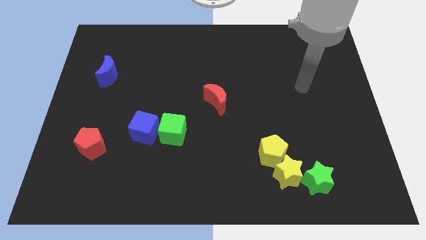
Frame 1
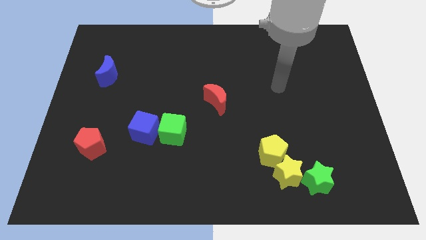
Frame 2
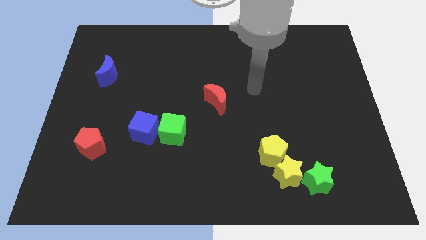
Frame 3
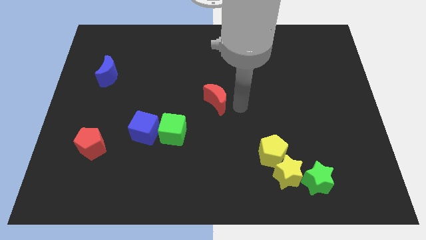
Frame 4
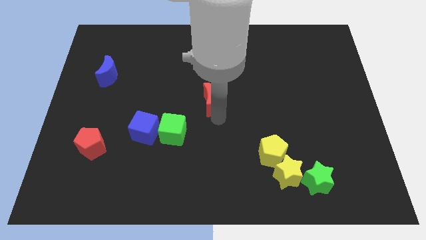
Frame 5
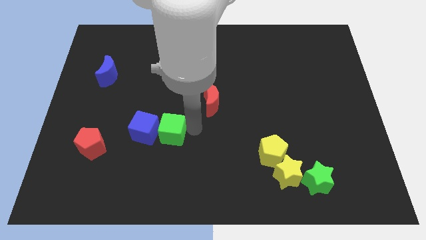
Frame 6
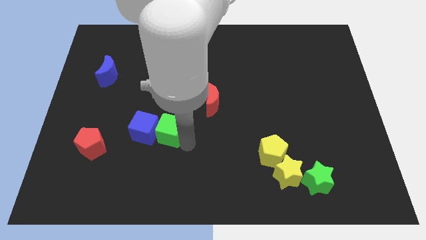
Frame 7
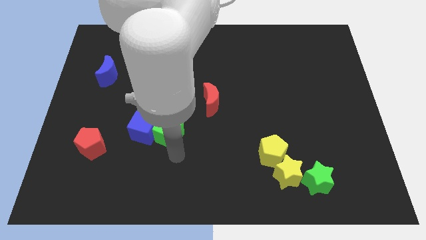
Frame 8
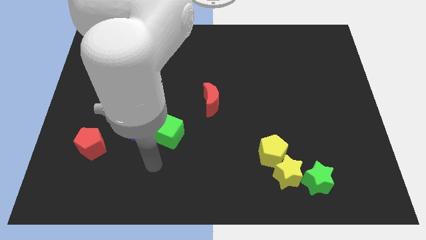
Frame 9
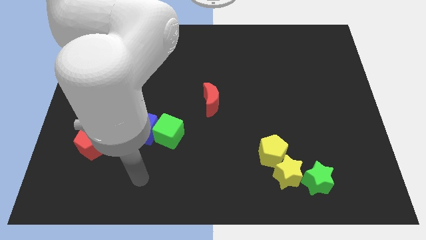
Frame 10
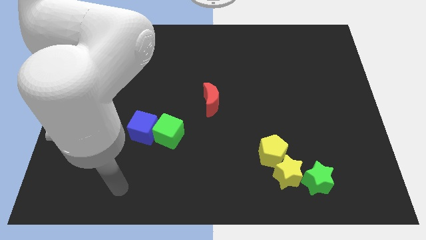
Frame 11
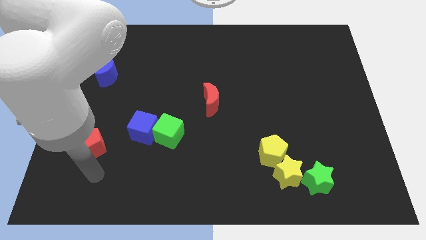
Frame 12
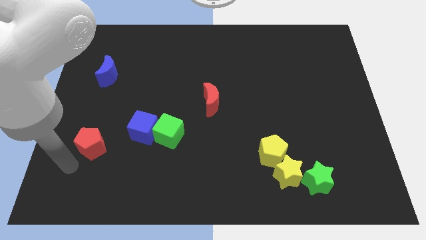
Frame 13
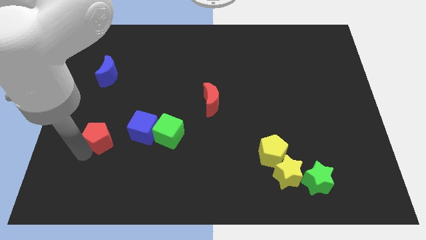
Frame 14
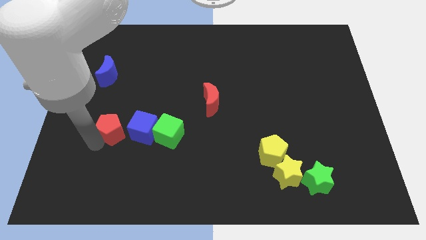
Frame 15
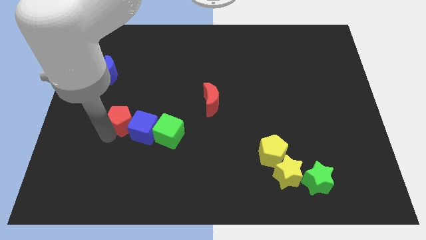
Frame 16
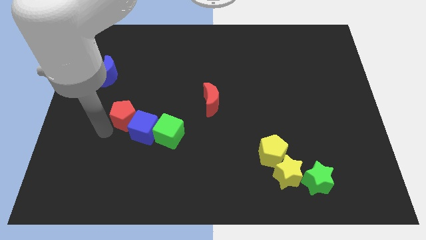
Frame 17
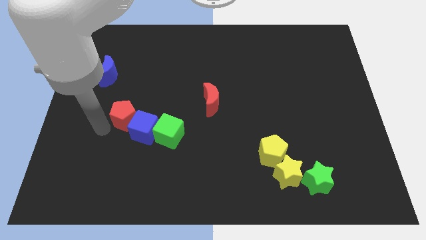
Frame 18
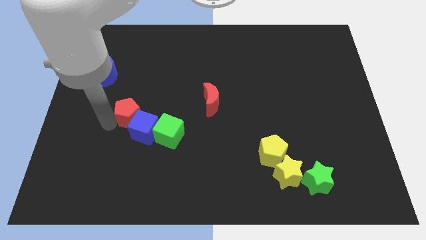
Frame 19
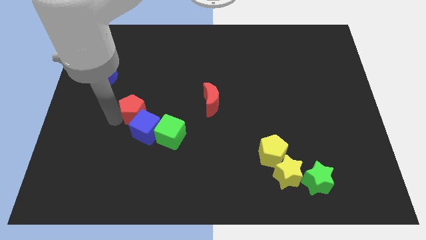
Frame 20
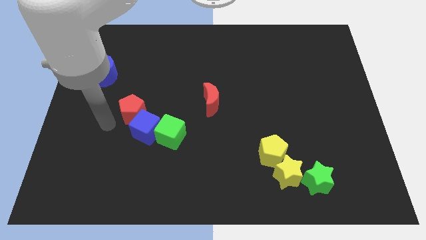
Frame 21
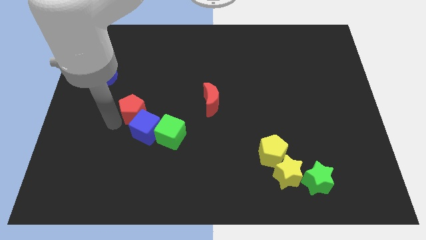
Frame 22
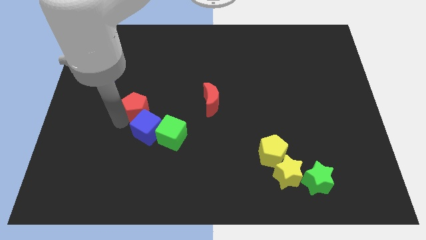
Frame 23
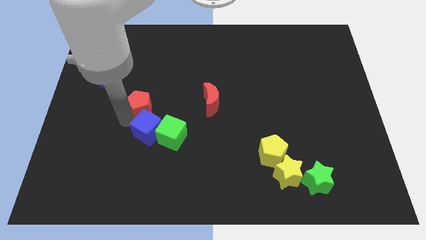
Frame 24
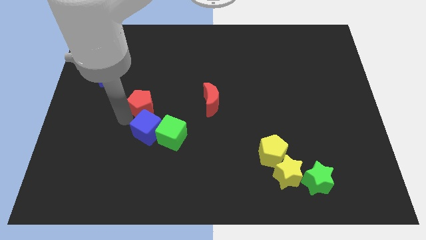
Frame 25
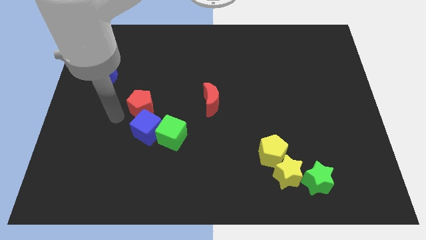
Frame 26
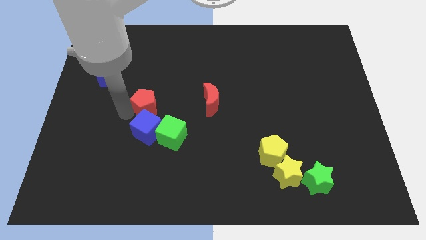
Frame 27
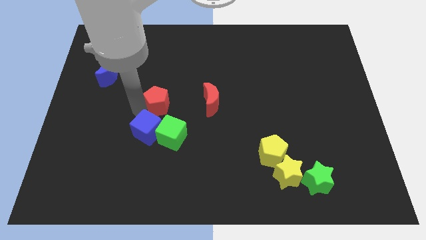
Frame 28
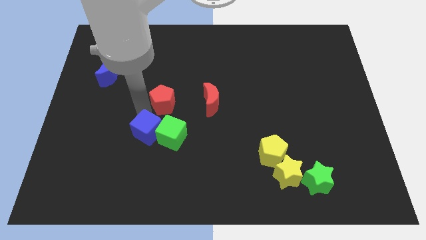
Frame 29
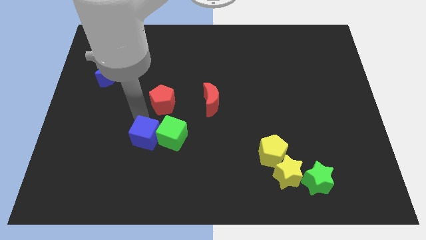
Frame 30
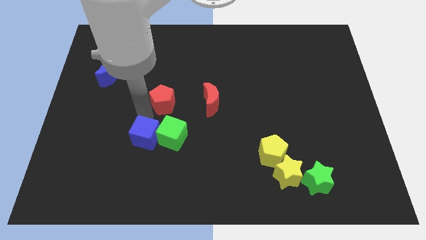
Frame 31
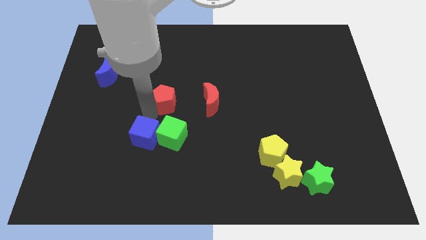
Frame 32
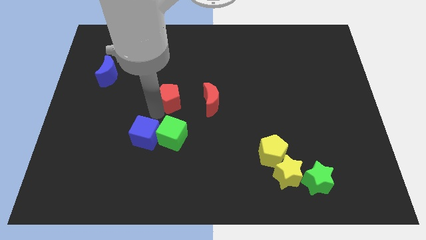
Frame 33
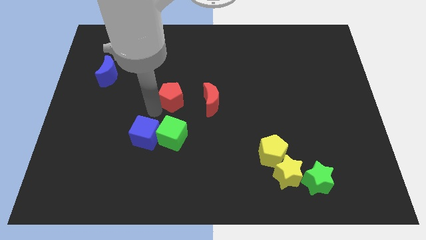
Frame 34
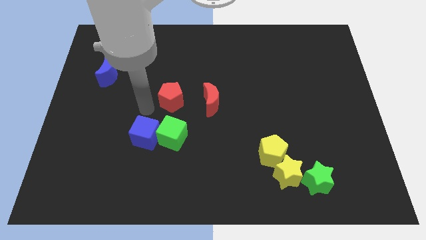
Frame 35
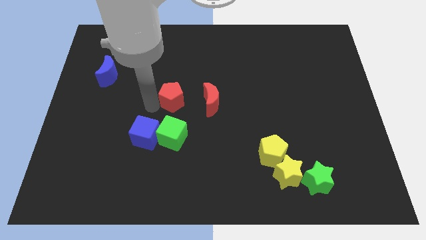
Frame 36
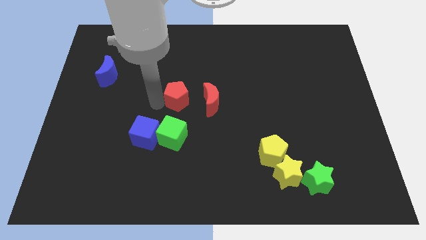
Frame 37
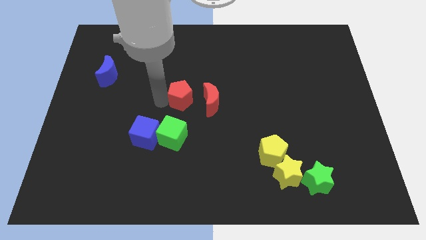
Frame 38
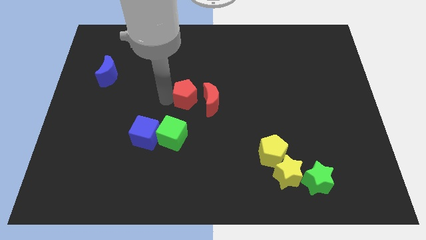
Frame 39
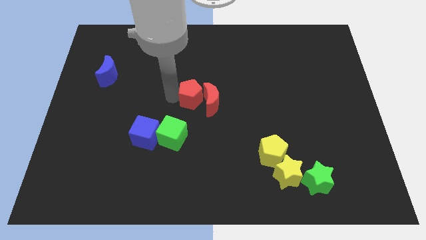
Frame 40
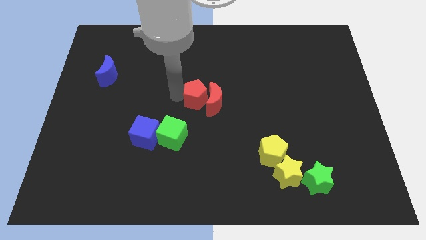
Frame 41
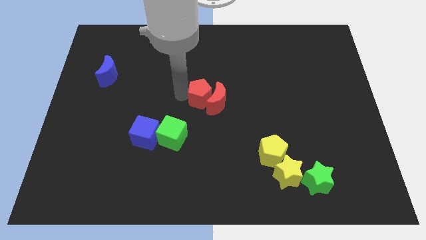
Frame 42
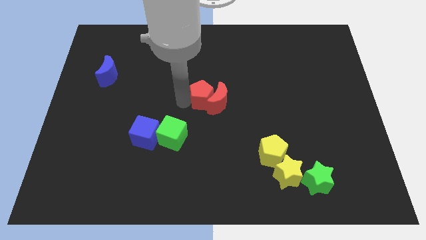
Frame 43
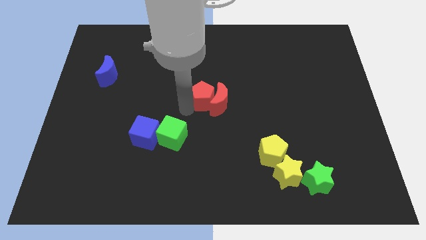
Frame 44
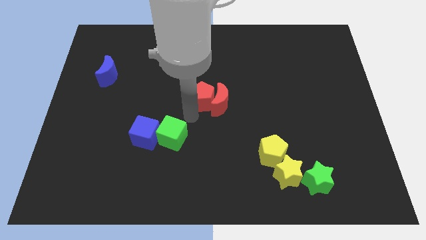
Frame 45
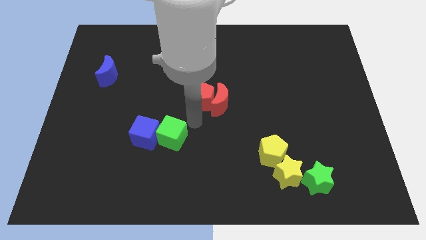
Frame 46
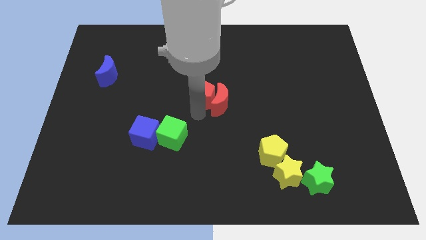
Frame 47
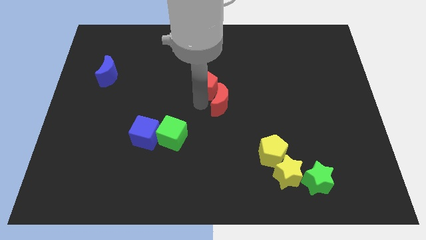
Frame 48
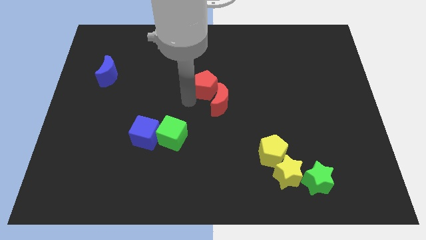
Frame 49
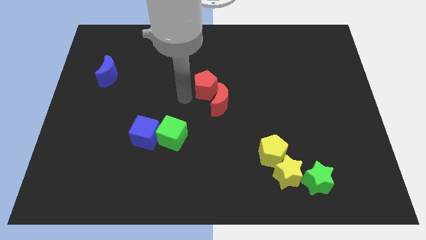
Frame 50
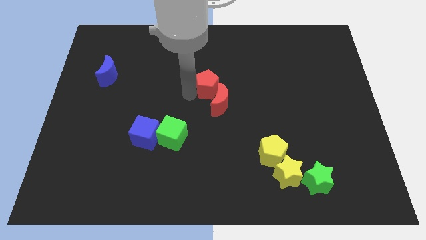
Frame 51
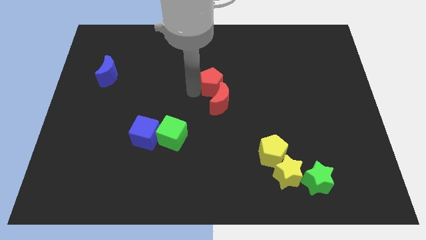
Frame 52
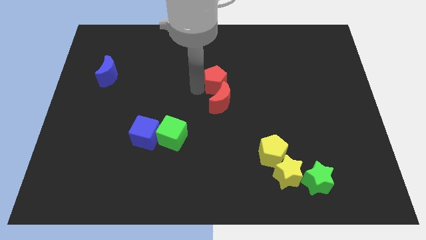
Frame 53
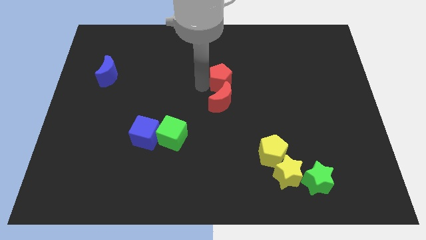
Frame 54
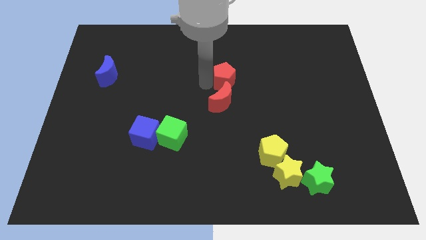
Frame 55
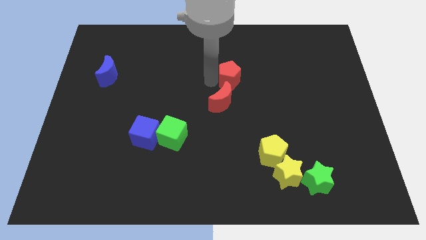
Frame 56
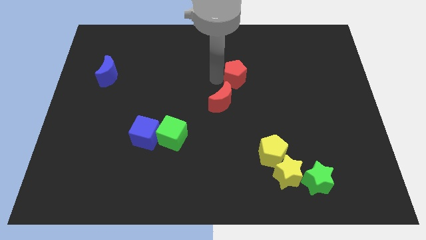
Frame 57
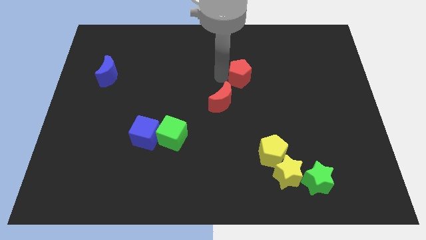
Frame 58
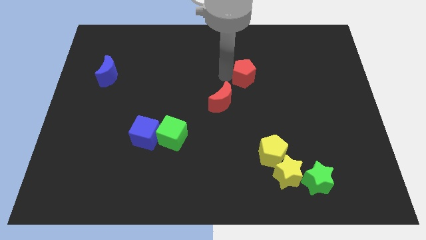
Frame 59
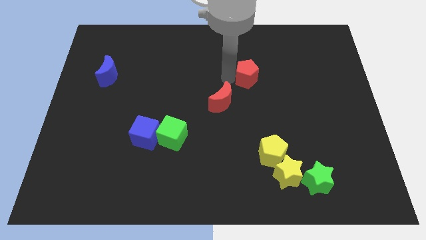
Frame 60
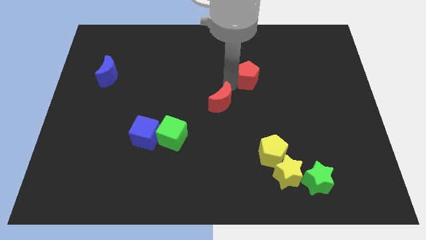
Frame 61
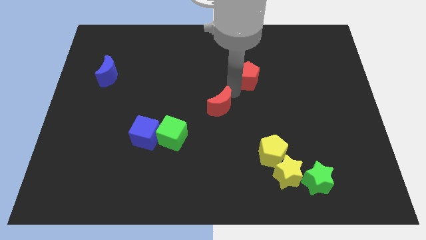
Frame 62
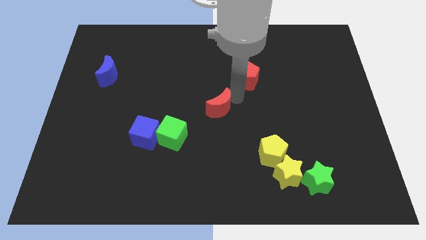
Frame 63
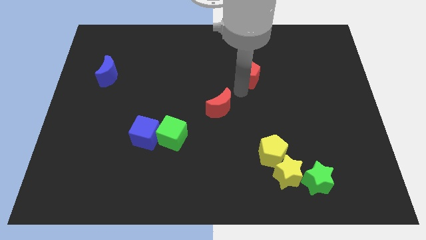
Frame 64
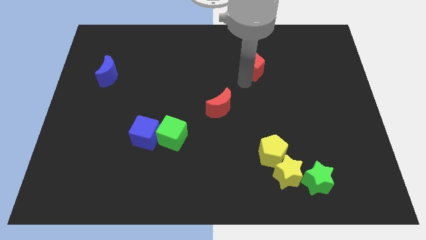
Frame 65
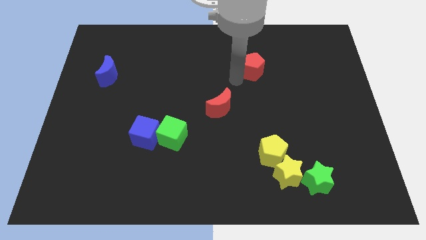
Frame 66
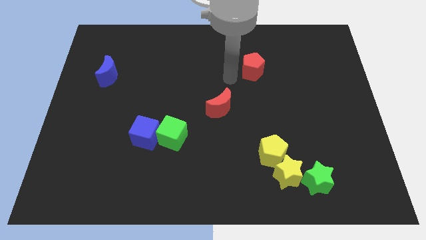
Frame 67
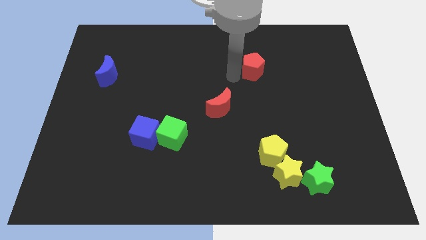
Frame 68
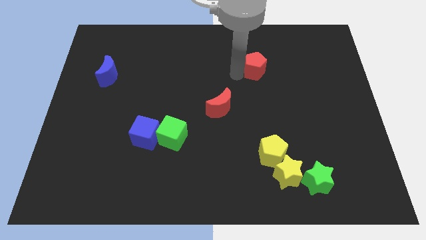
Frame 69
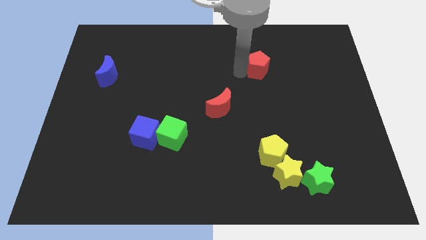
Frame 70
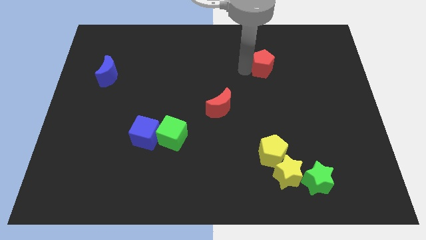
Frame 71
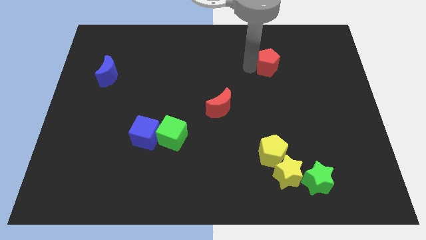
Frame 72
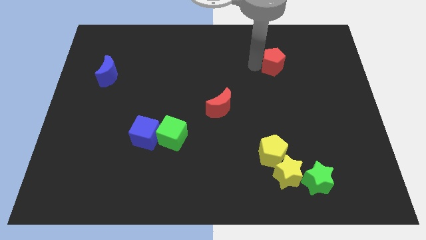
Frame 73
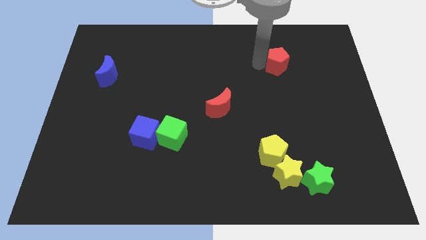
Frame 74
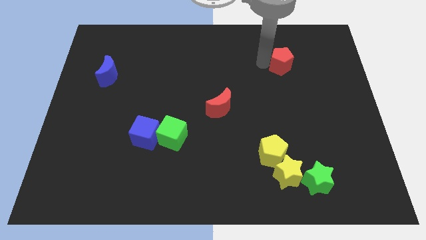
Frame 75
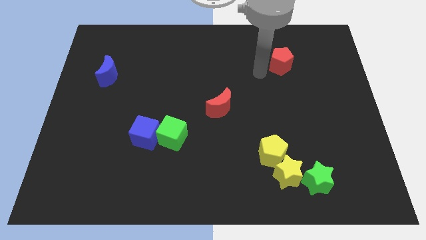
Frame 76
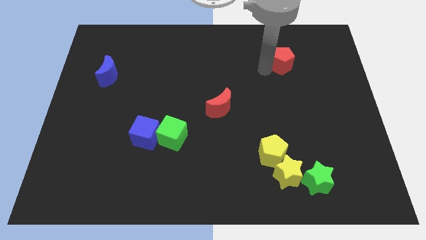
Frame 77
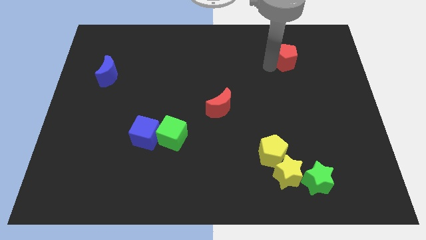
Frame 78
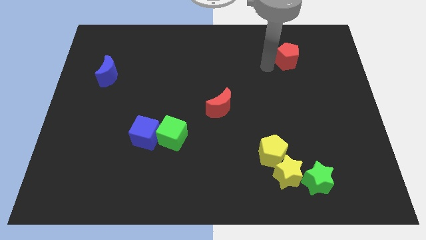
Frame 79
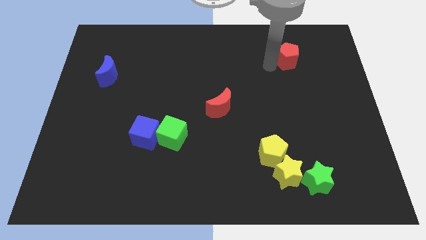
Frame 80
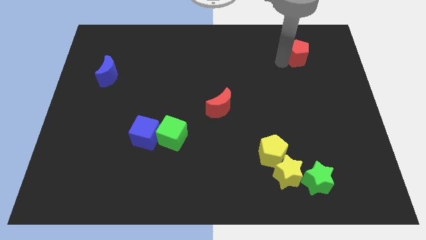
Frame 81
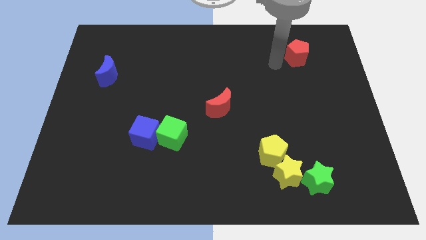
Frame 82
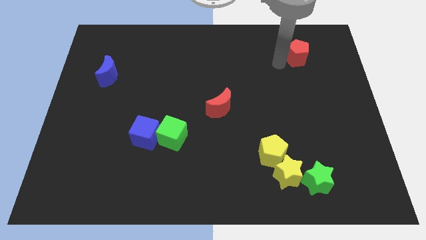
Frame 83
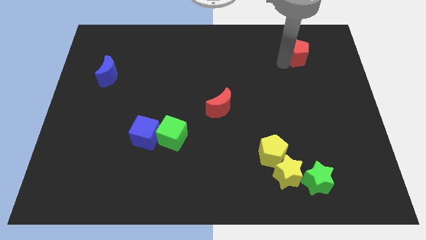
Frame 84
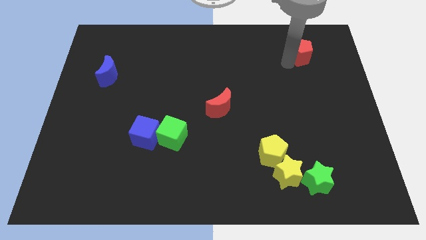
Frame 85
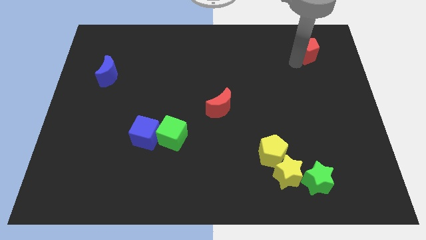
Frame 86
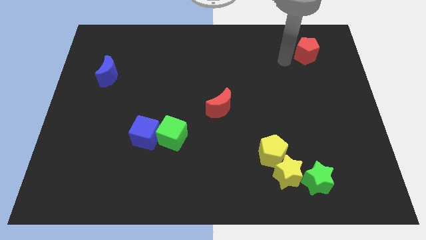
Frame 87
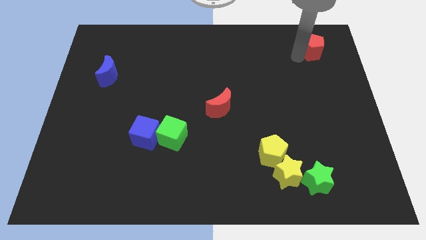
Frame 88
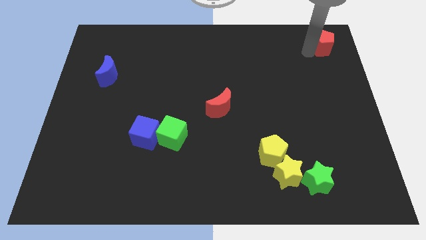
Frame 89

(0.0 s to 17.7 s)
push the red pentagon to the upper right corner
